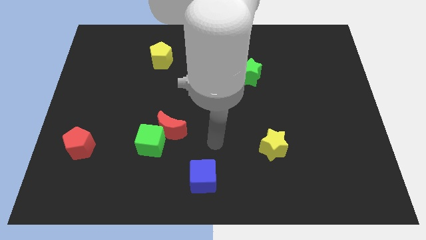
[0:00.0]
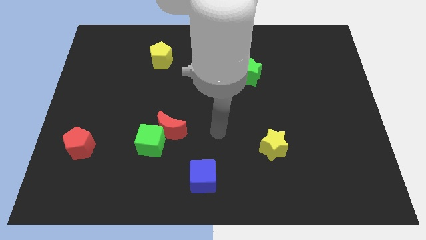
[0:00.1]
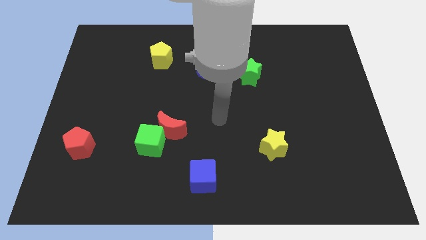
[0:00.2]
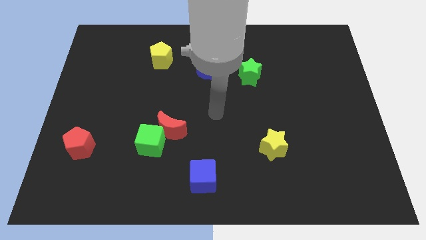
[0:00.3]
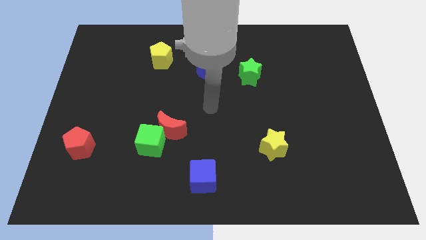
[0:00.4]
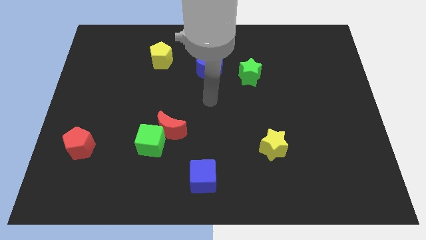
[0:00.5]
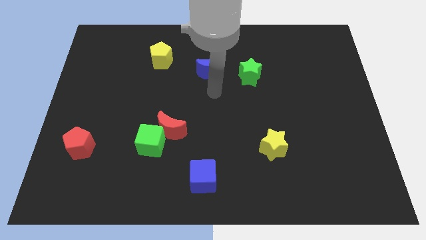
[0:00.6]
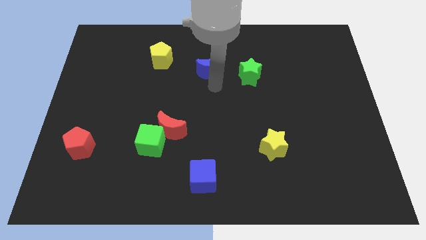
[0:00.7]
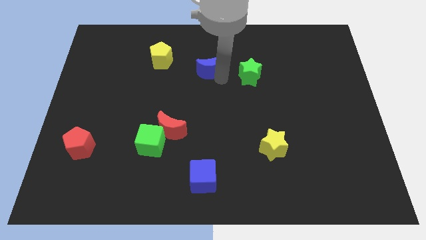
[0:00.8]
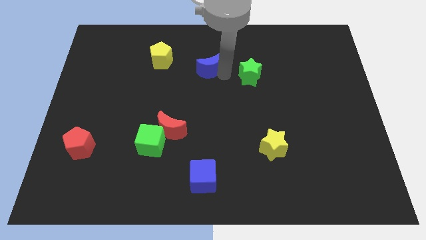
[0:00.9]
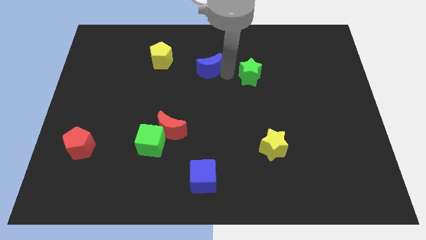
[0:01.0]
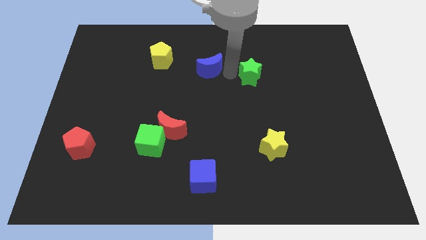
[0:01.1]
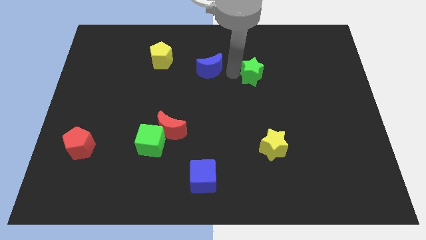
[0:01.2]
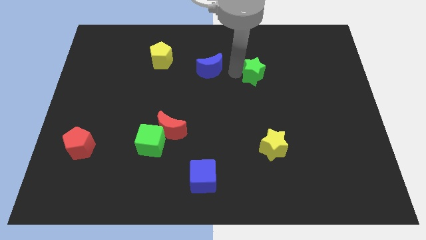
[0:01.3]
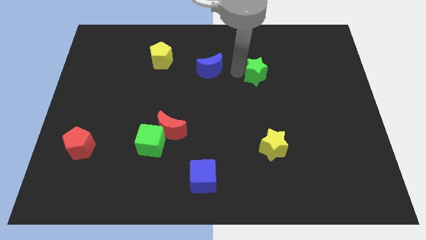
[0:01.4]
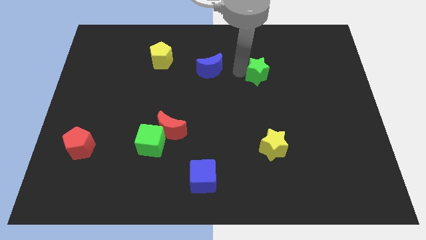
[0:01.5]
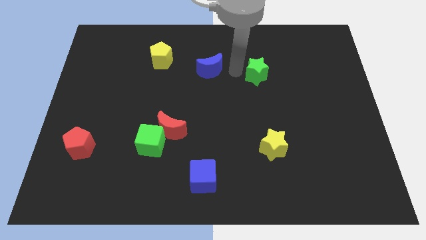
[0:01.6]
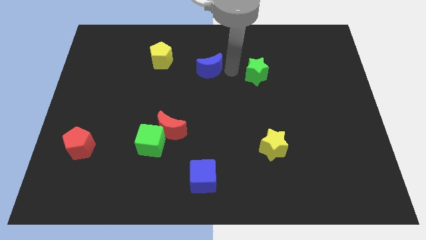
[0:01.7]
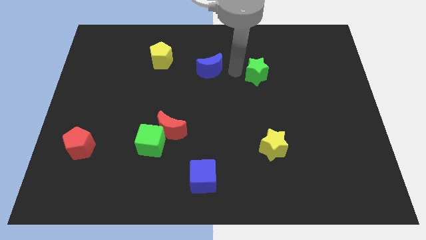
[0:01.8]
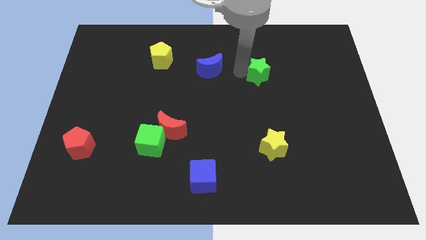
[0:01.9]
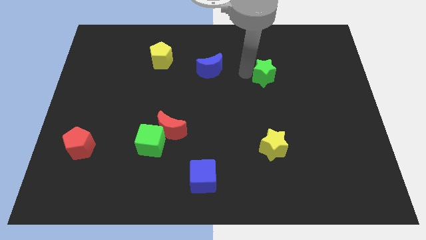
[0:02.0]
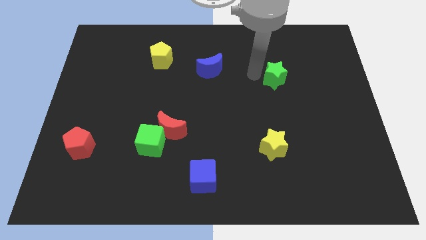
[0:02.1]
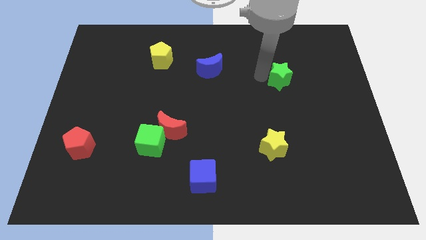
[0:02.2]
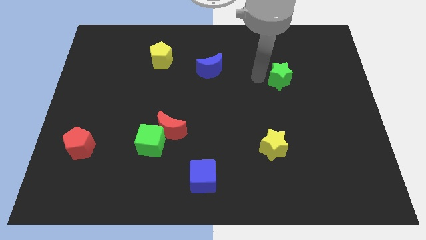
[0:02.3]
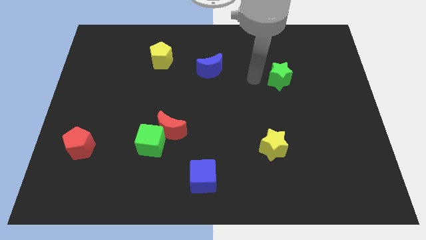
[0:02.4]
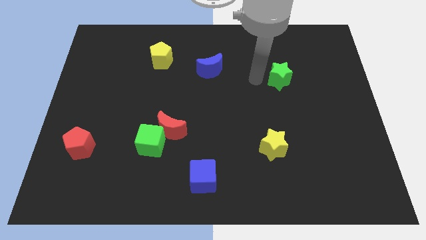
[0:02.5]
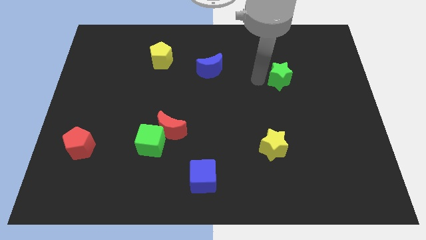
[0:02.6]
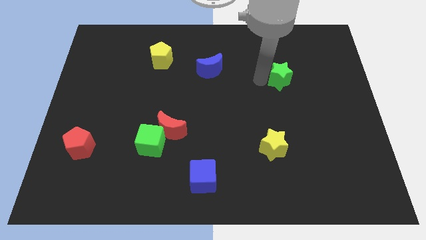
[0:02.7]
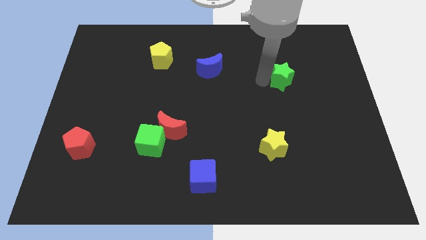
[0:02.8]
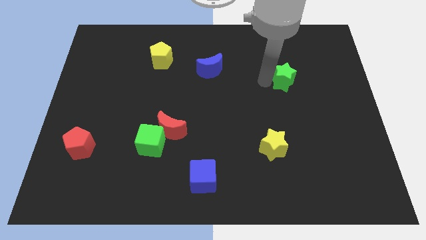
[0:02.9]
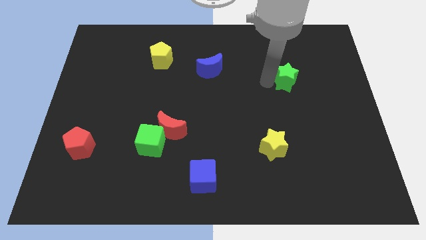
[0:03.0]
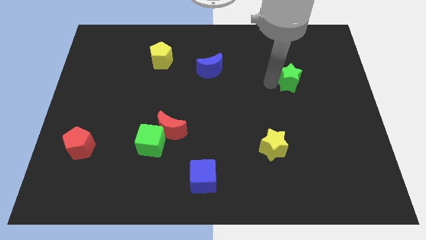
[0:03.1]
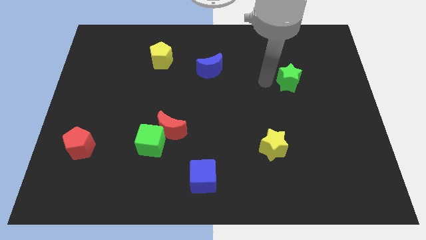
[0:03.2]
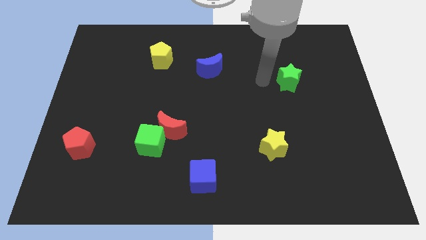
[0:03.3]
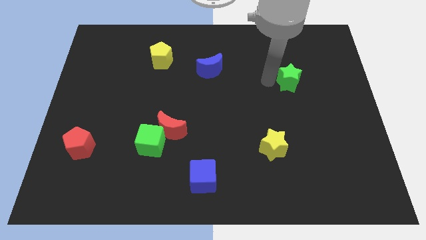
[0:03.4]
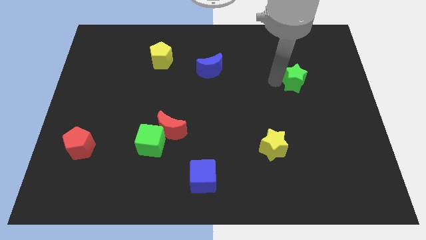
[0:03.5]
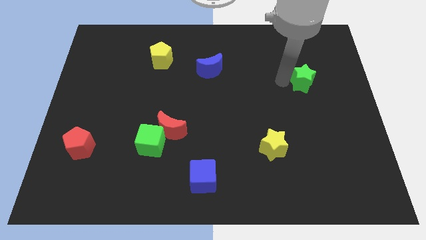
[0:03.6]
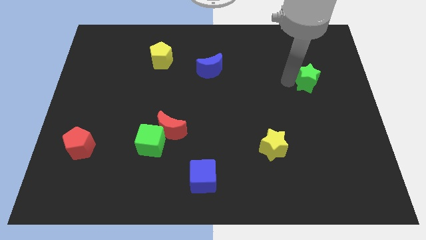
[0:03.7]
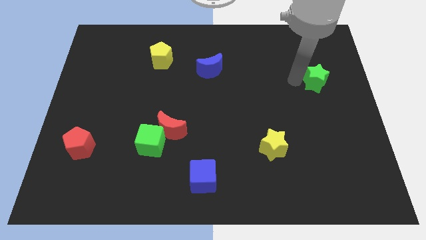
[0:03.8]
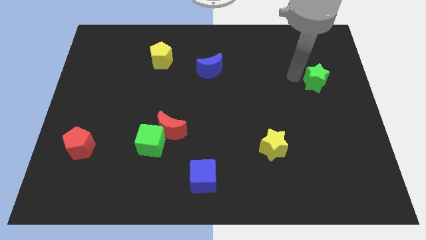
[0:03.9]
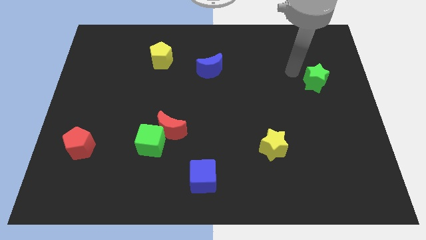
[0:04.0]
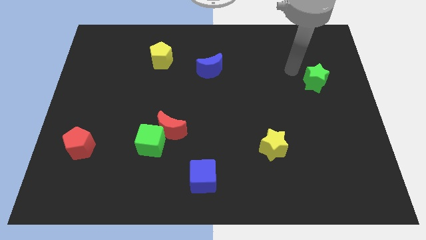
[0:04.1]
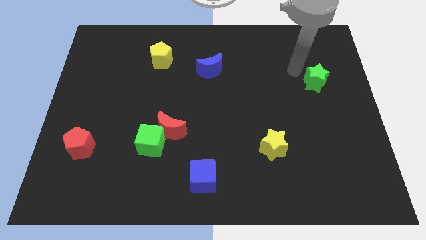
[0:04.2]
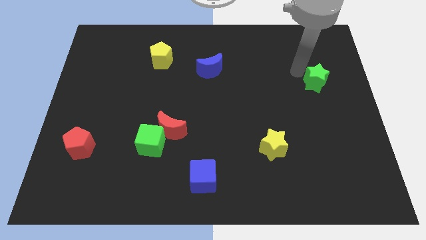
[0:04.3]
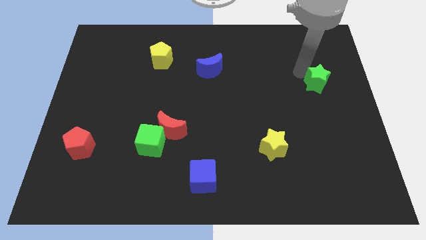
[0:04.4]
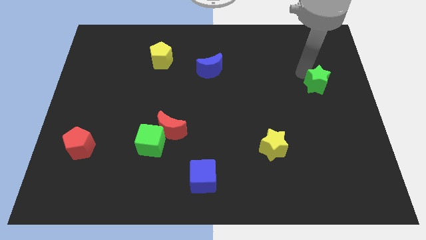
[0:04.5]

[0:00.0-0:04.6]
push the green star to the right side

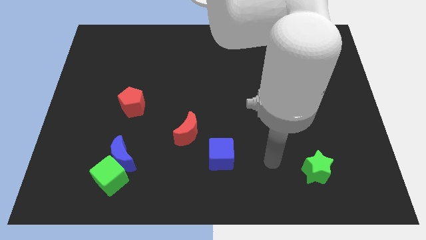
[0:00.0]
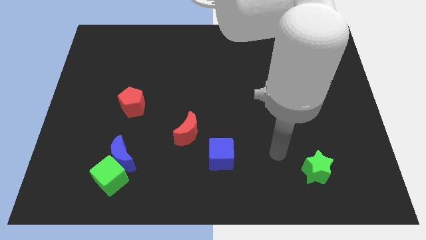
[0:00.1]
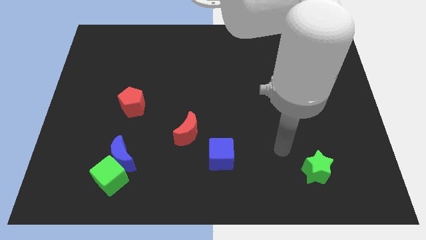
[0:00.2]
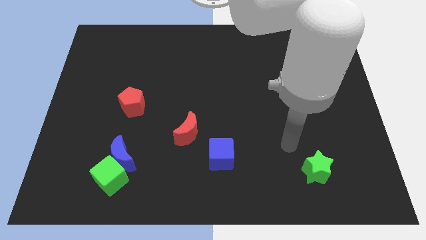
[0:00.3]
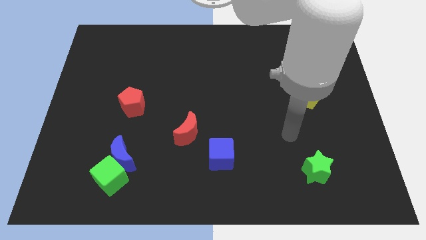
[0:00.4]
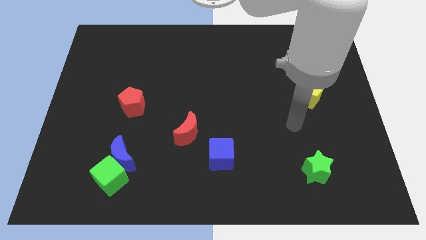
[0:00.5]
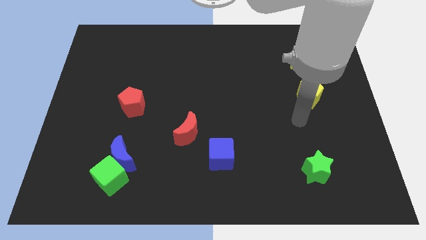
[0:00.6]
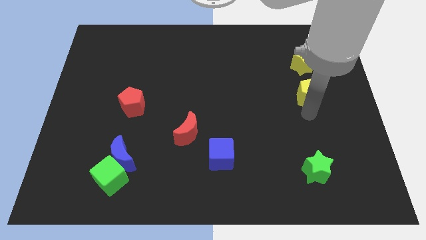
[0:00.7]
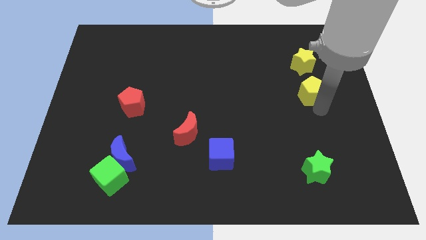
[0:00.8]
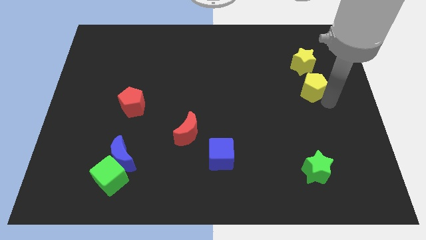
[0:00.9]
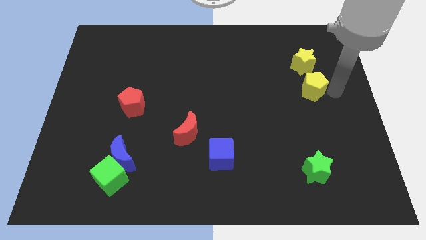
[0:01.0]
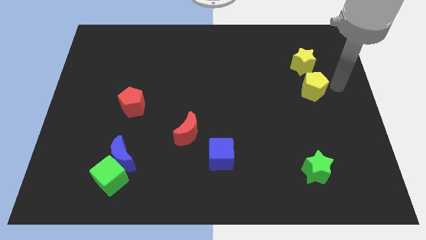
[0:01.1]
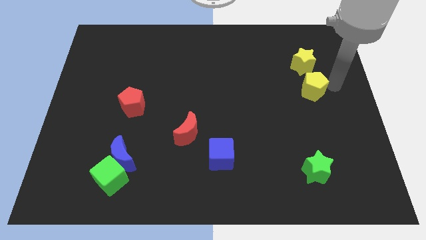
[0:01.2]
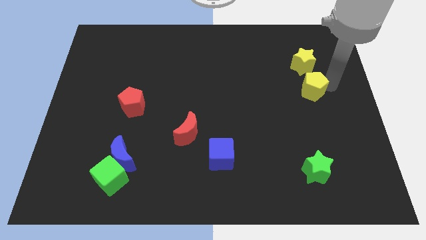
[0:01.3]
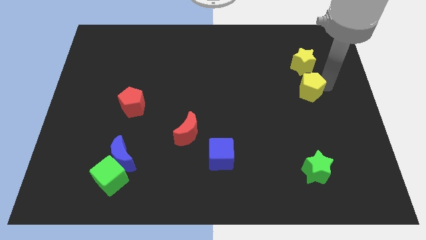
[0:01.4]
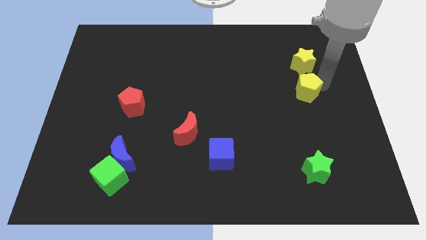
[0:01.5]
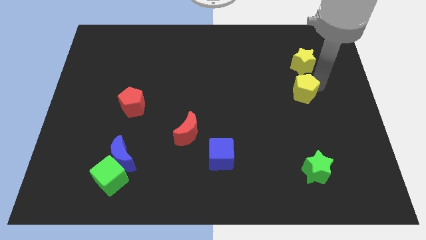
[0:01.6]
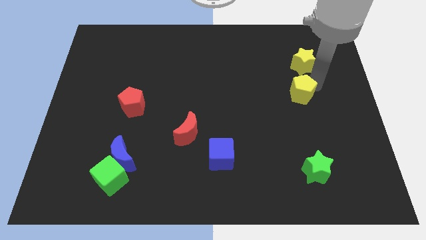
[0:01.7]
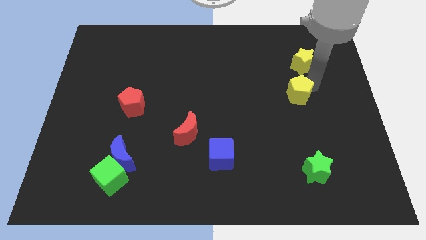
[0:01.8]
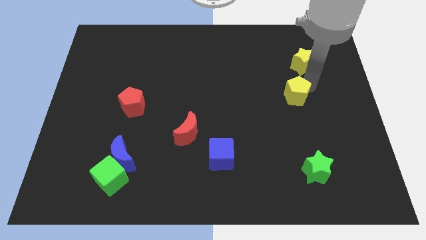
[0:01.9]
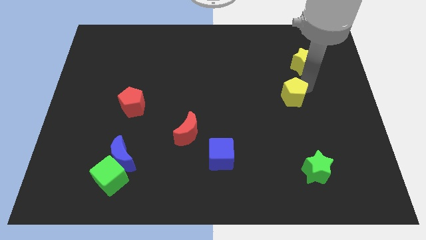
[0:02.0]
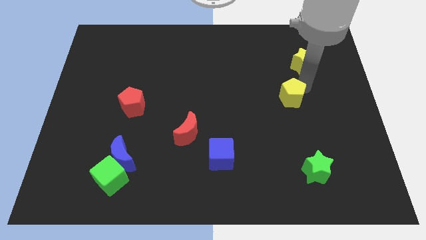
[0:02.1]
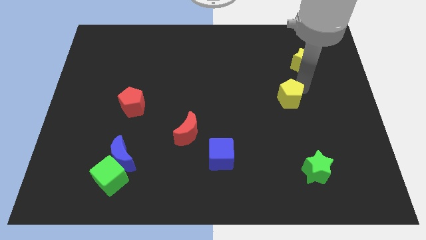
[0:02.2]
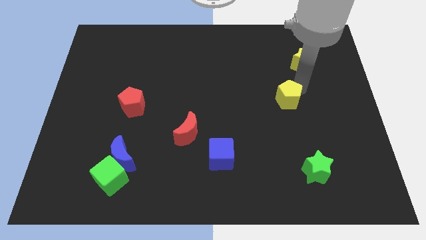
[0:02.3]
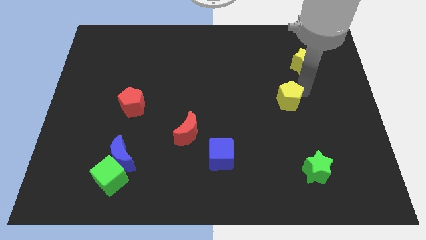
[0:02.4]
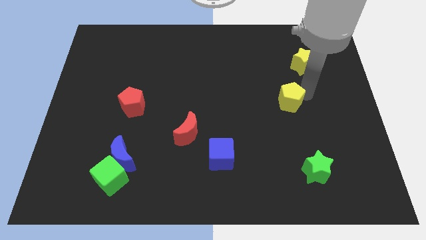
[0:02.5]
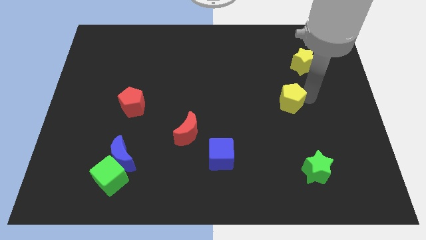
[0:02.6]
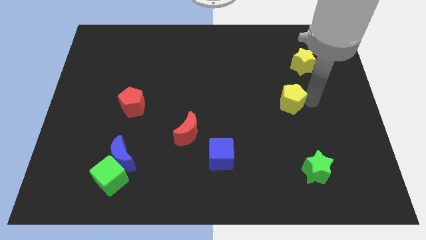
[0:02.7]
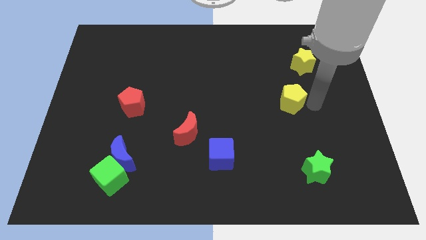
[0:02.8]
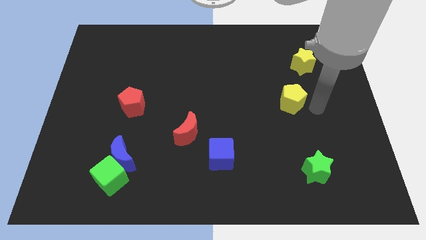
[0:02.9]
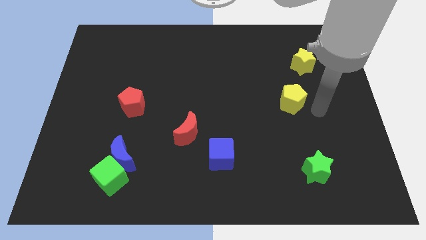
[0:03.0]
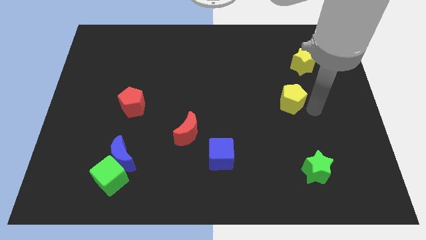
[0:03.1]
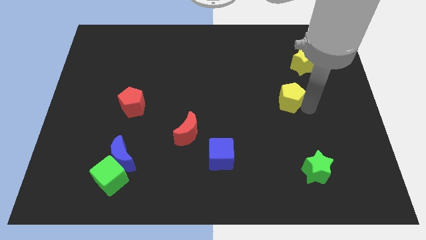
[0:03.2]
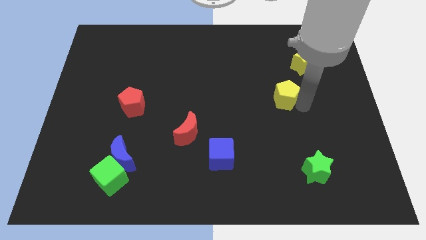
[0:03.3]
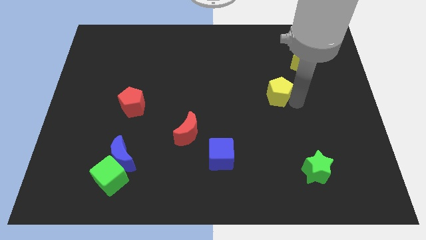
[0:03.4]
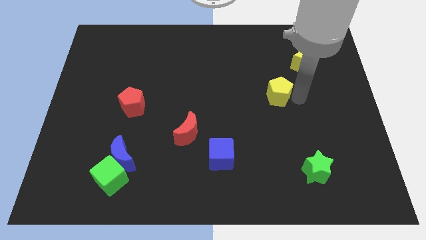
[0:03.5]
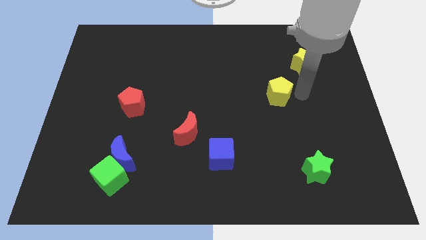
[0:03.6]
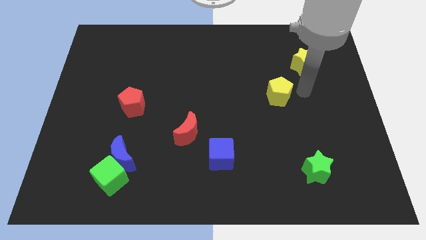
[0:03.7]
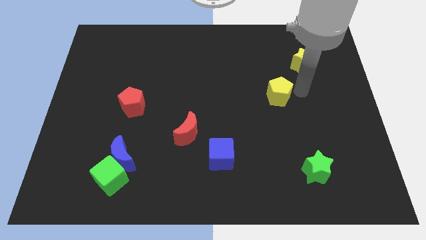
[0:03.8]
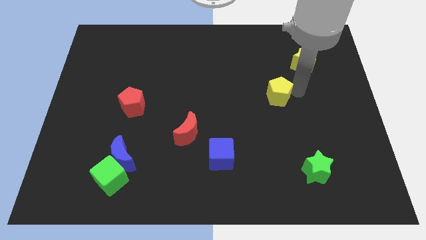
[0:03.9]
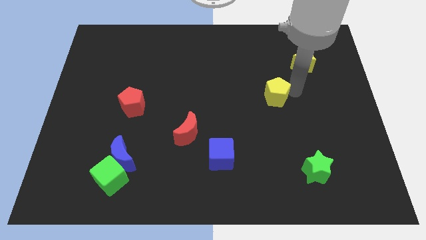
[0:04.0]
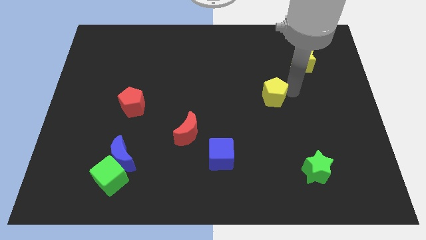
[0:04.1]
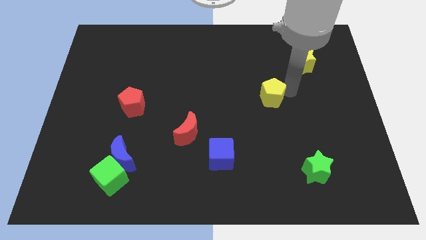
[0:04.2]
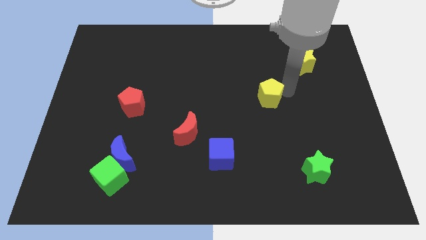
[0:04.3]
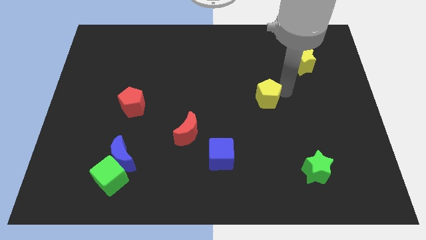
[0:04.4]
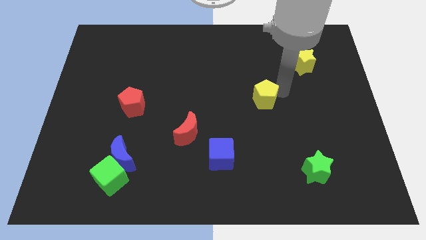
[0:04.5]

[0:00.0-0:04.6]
put the yellow pentagon to the center of the board
